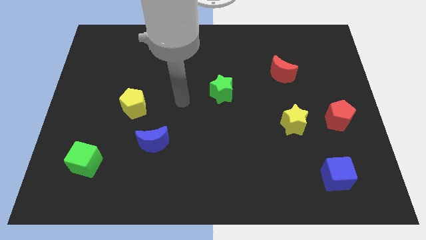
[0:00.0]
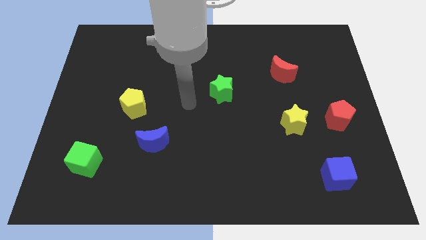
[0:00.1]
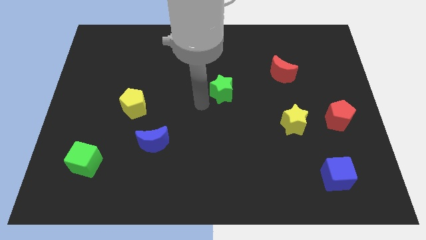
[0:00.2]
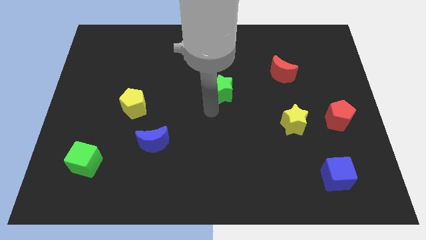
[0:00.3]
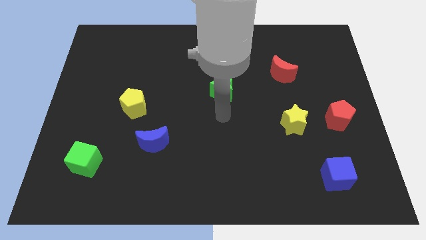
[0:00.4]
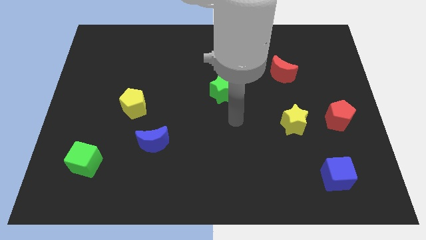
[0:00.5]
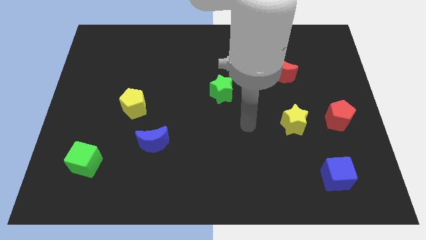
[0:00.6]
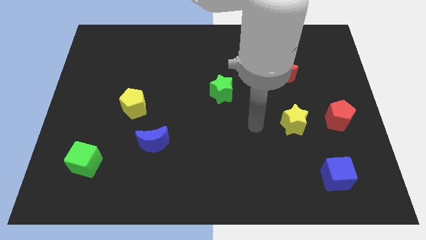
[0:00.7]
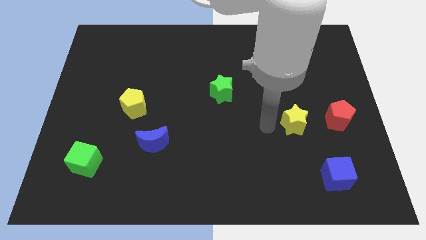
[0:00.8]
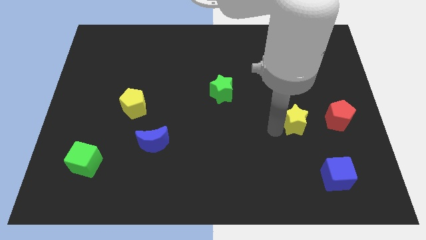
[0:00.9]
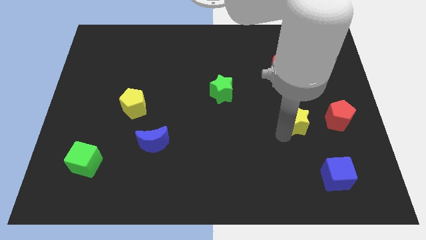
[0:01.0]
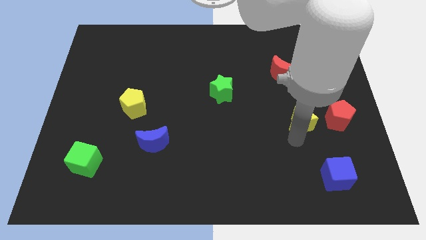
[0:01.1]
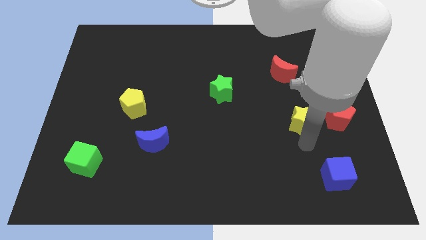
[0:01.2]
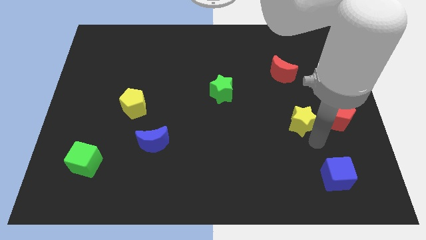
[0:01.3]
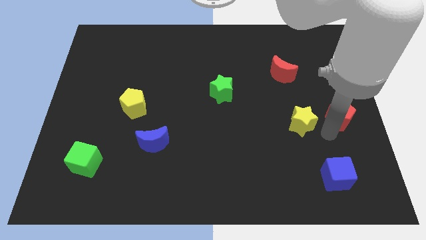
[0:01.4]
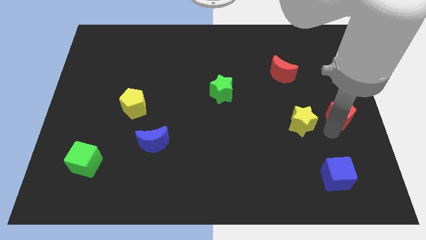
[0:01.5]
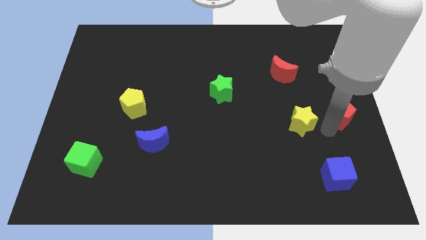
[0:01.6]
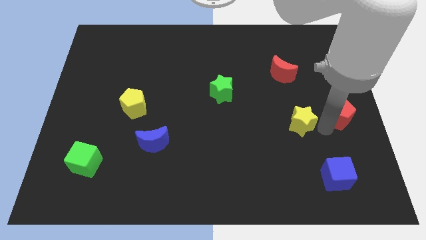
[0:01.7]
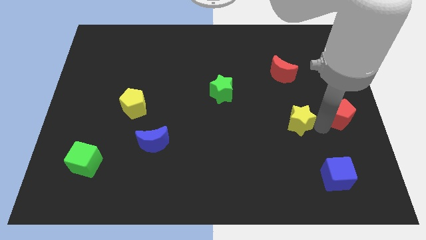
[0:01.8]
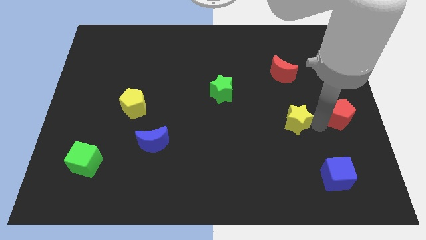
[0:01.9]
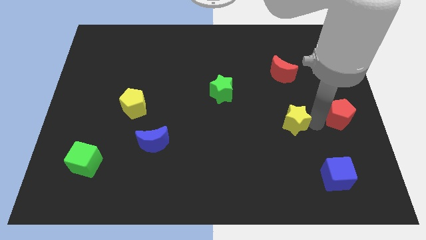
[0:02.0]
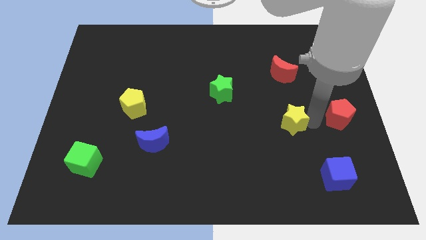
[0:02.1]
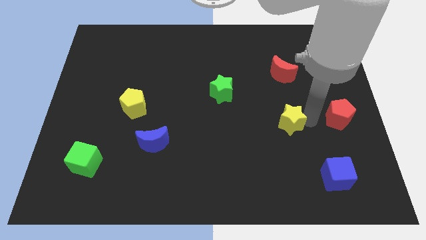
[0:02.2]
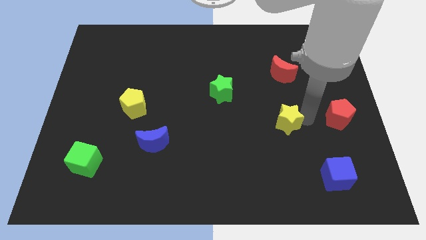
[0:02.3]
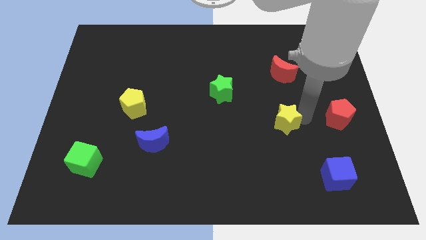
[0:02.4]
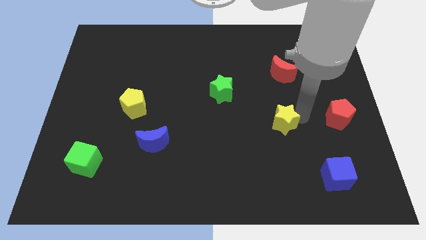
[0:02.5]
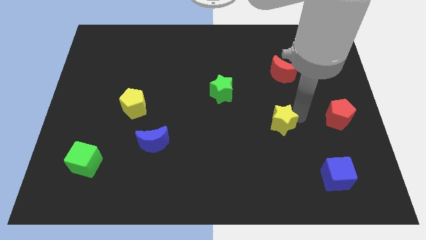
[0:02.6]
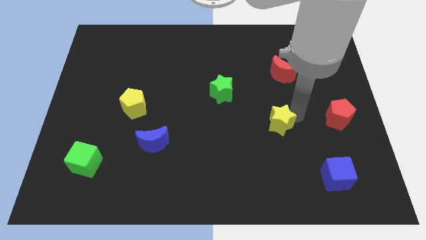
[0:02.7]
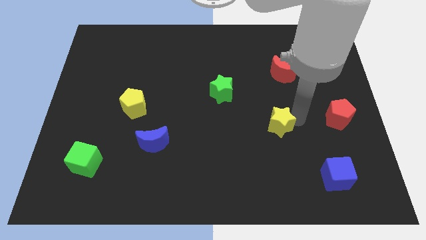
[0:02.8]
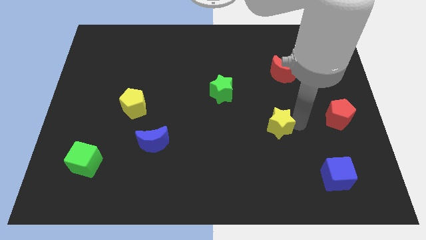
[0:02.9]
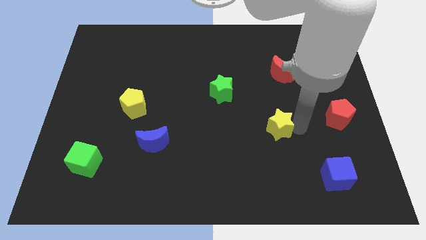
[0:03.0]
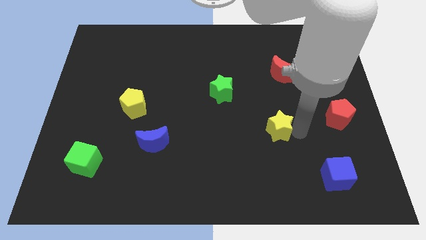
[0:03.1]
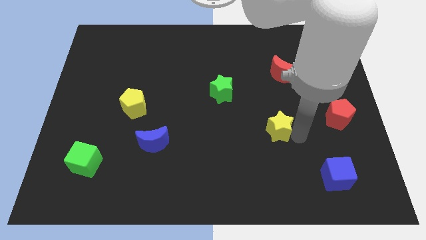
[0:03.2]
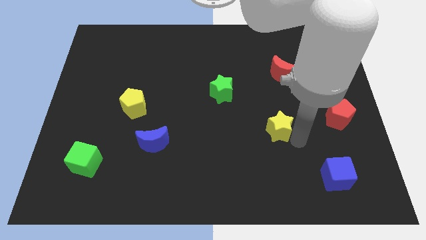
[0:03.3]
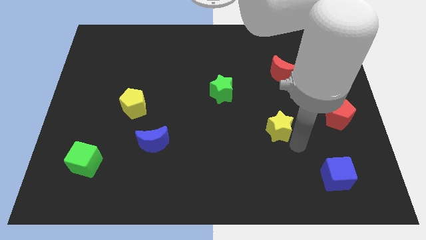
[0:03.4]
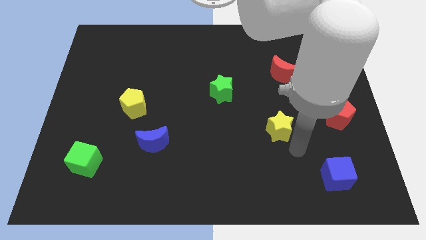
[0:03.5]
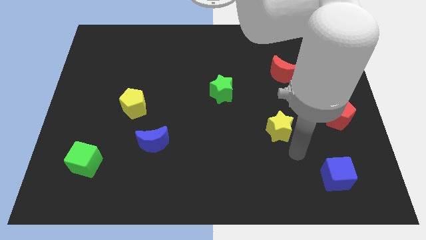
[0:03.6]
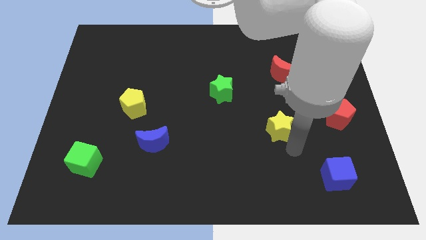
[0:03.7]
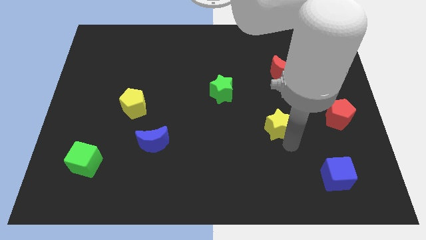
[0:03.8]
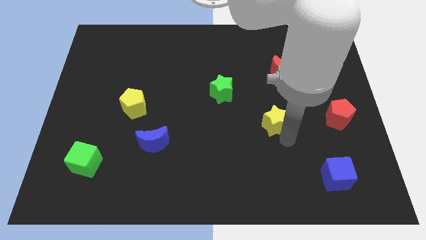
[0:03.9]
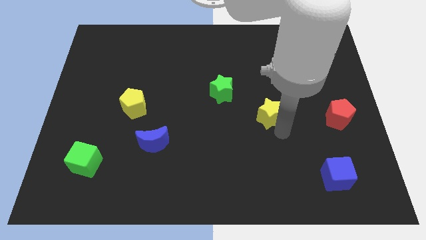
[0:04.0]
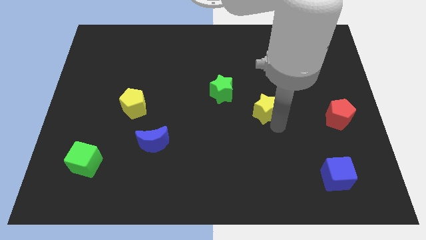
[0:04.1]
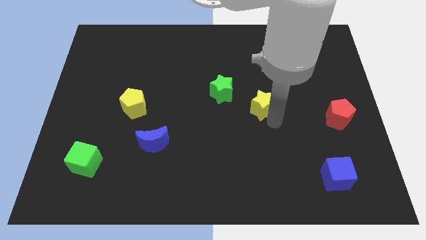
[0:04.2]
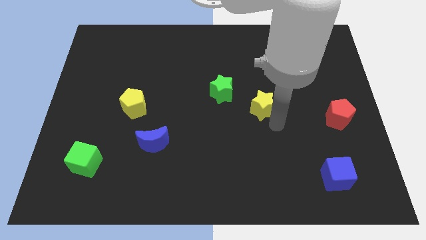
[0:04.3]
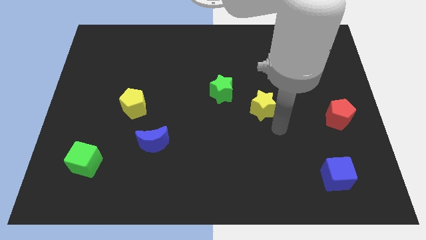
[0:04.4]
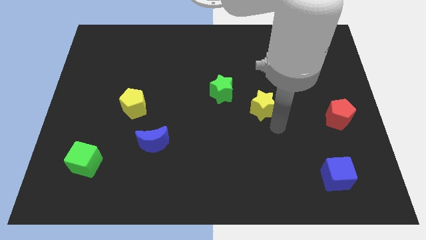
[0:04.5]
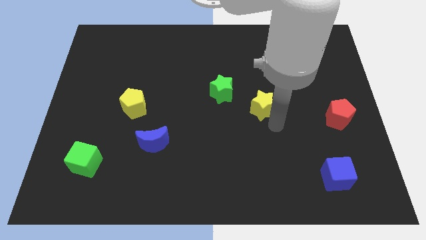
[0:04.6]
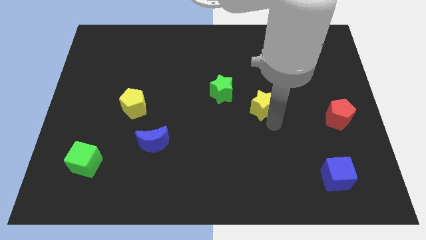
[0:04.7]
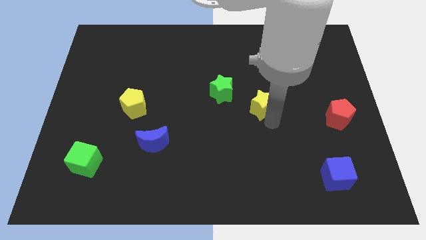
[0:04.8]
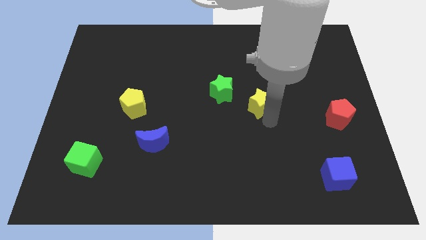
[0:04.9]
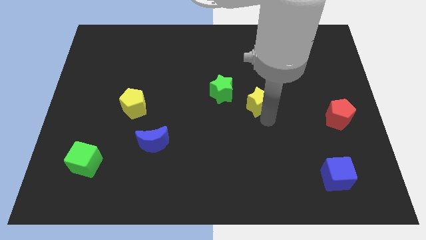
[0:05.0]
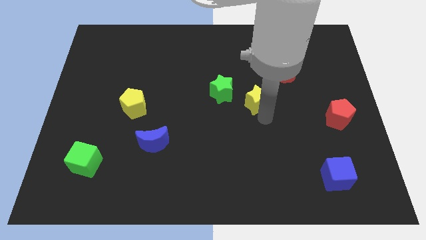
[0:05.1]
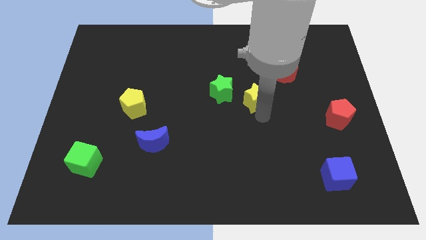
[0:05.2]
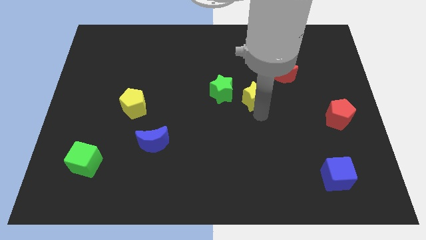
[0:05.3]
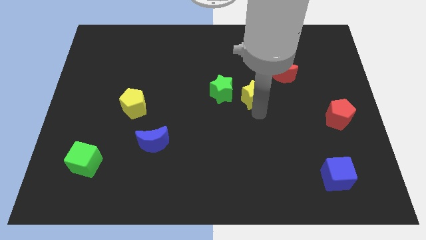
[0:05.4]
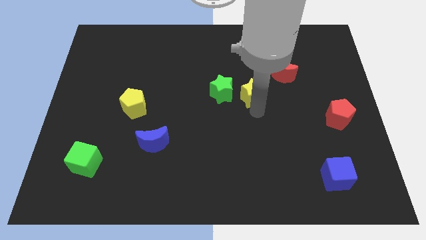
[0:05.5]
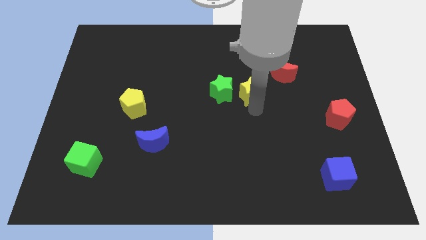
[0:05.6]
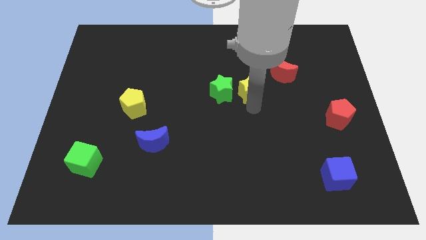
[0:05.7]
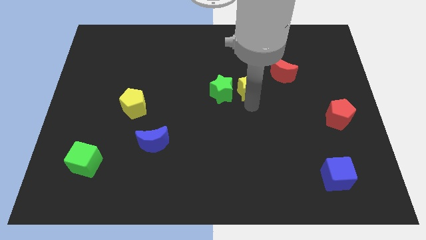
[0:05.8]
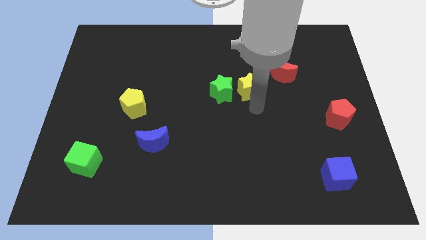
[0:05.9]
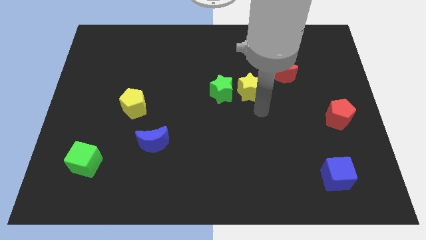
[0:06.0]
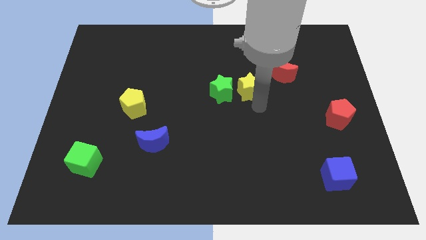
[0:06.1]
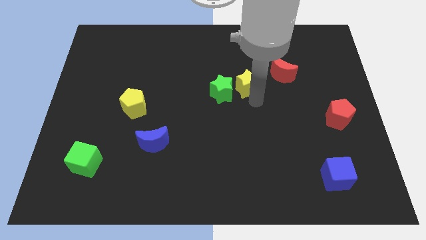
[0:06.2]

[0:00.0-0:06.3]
push the yellow star to the left side of the red moon

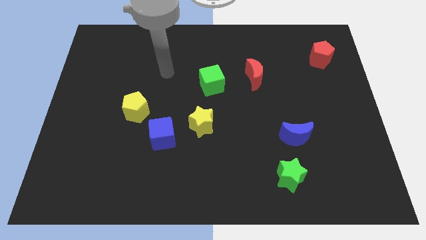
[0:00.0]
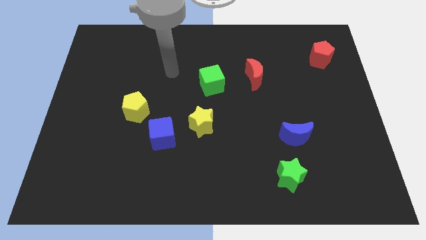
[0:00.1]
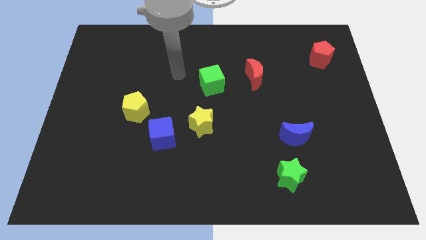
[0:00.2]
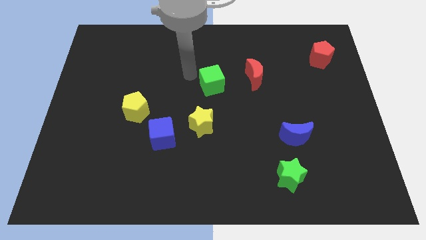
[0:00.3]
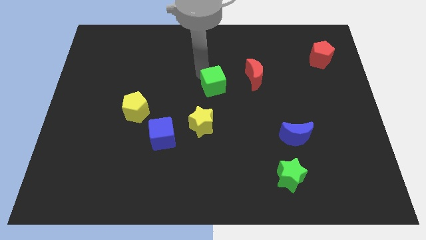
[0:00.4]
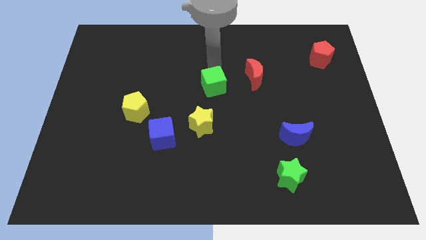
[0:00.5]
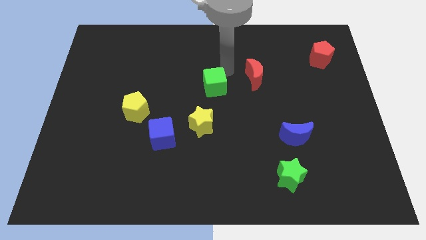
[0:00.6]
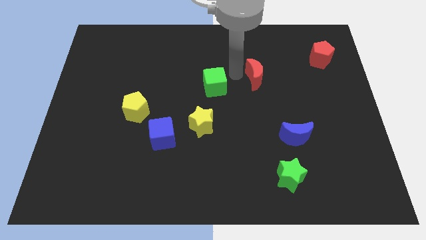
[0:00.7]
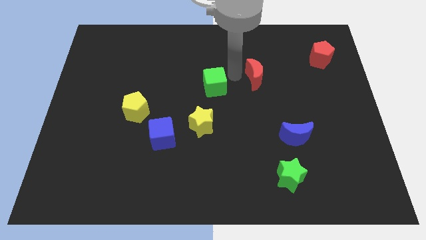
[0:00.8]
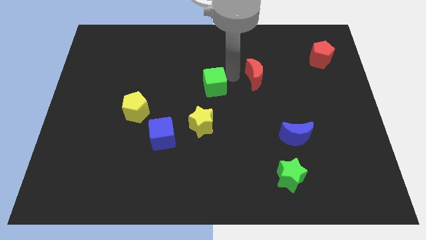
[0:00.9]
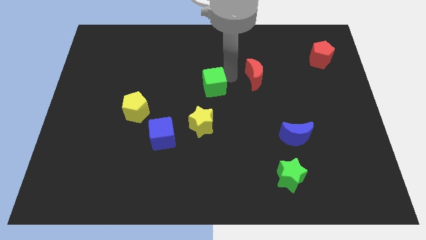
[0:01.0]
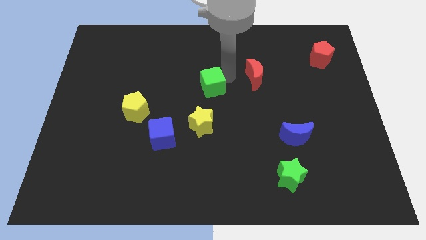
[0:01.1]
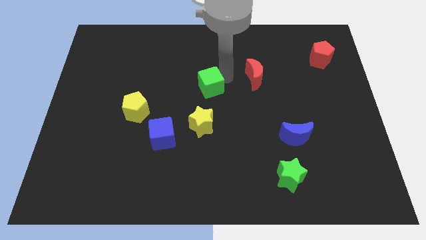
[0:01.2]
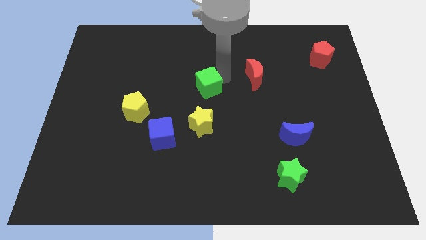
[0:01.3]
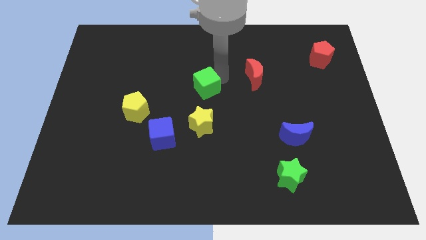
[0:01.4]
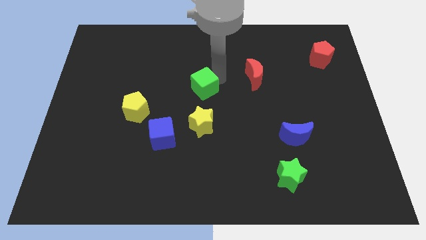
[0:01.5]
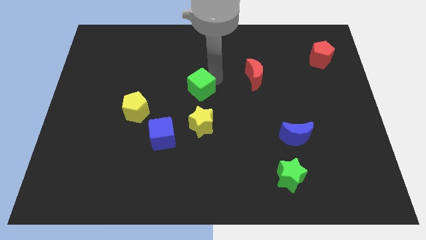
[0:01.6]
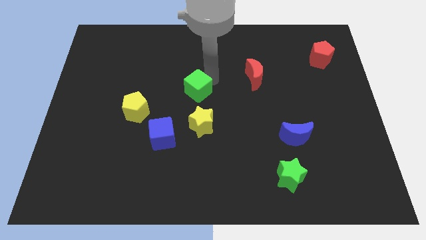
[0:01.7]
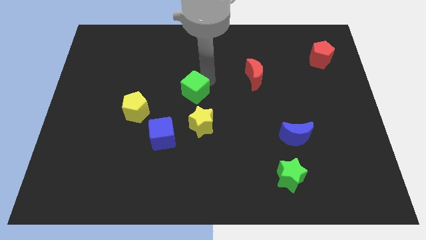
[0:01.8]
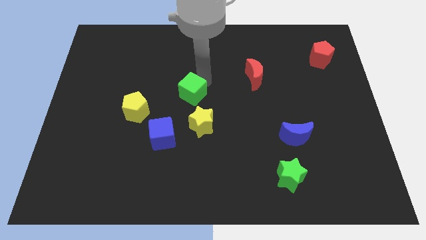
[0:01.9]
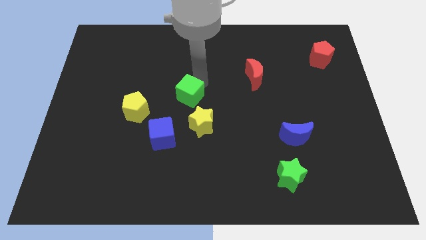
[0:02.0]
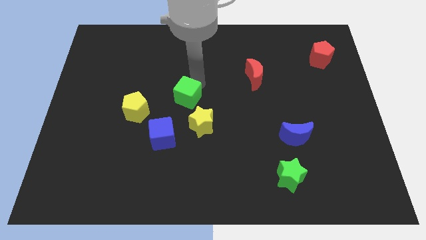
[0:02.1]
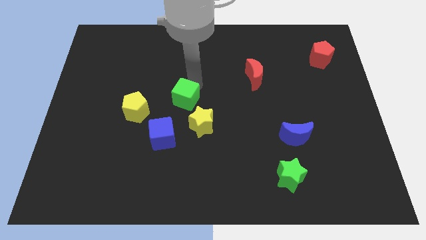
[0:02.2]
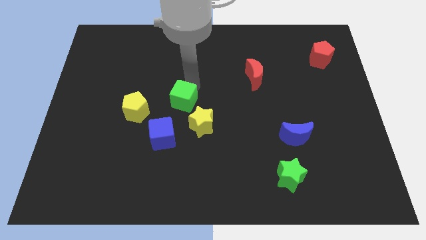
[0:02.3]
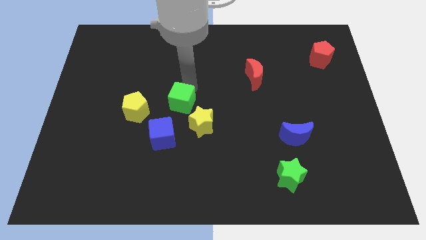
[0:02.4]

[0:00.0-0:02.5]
push the green cube diagonally up and to the right of the blue cube

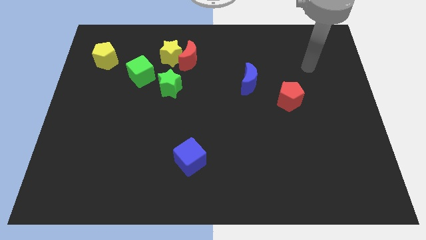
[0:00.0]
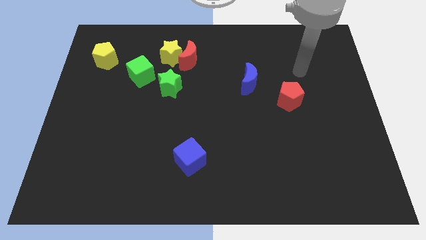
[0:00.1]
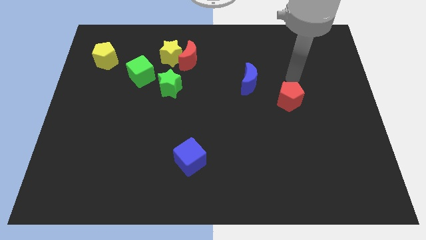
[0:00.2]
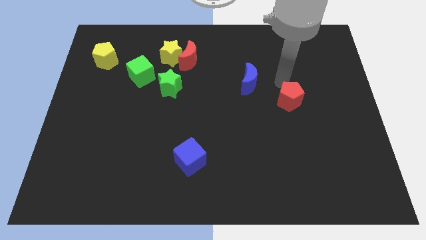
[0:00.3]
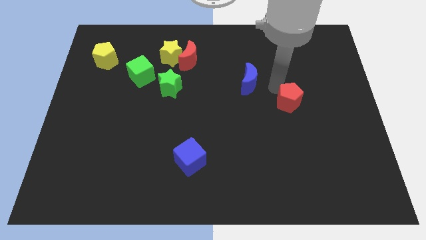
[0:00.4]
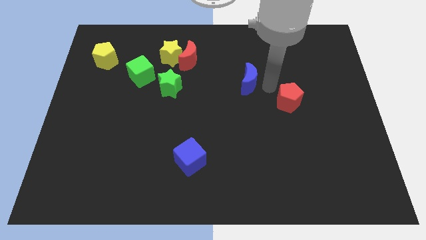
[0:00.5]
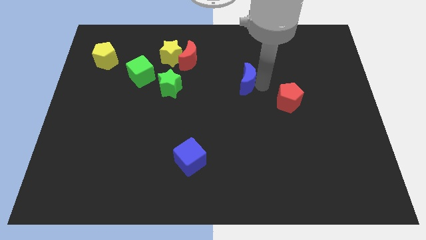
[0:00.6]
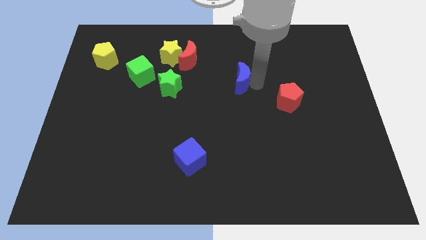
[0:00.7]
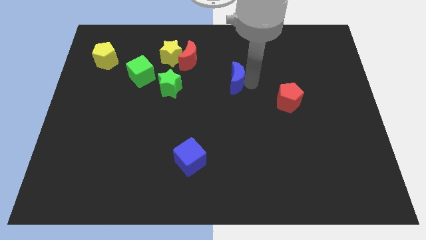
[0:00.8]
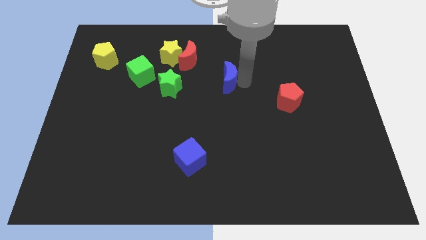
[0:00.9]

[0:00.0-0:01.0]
push the blue moon to the bottom right side of the red moon
